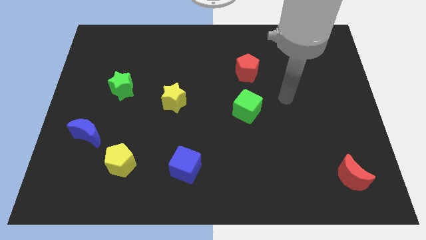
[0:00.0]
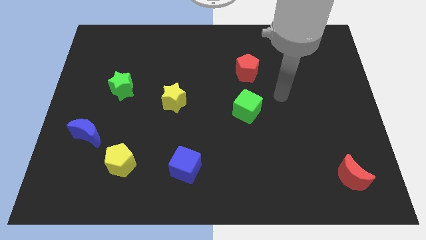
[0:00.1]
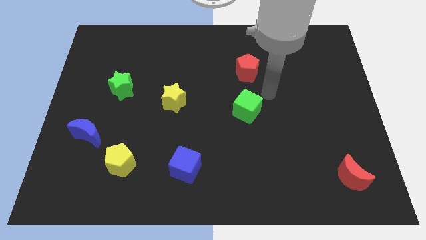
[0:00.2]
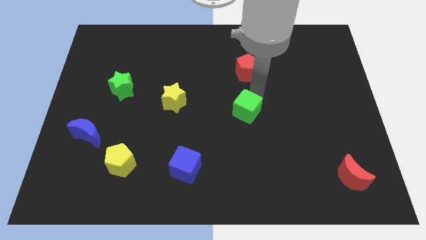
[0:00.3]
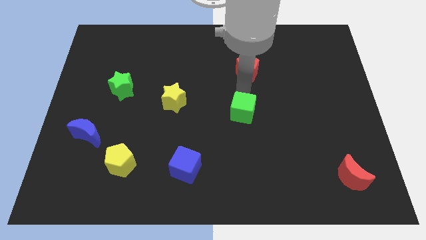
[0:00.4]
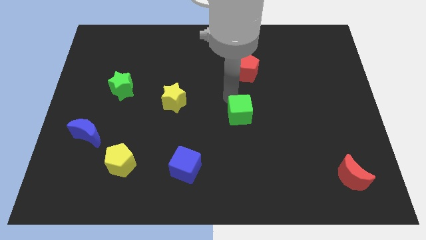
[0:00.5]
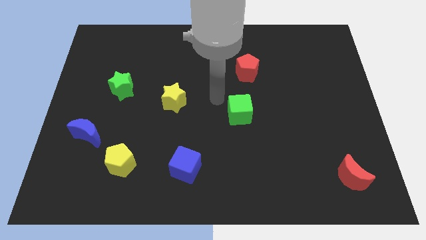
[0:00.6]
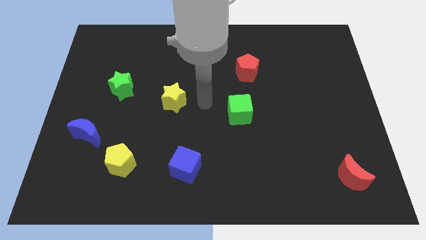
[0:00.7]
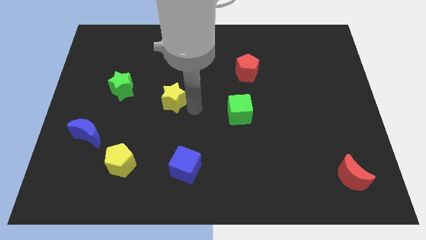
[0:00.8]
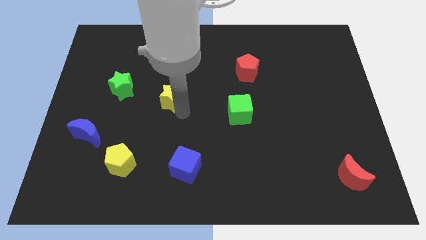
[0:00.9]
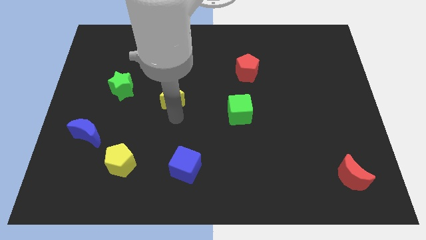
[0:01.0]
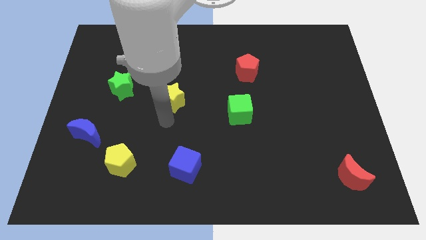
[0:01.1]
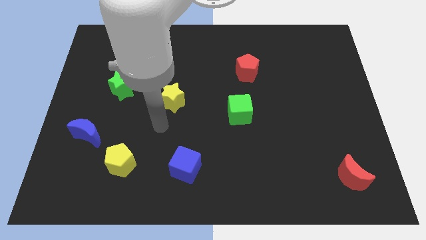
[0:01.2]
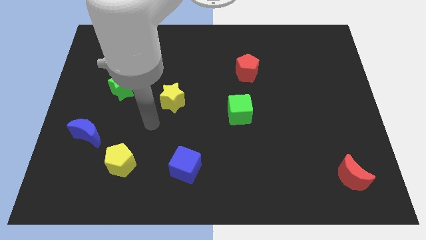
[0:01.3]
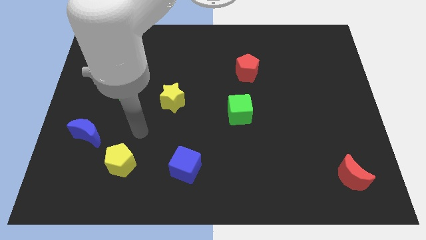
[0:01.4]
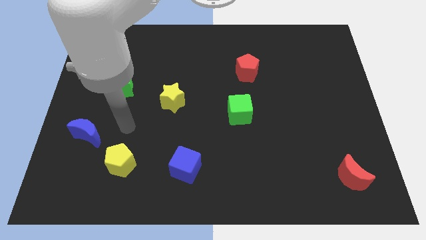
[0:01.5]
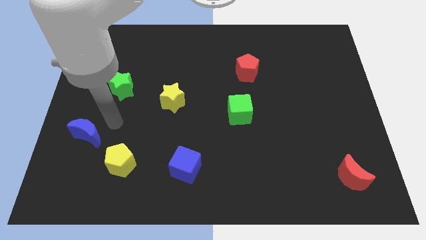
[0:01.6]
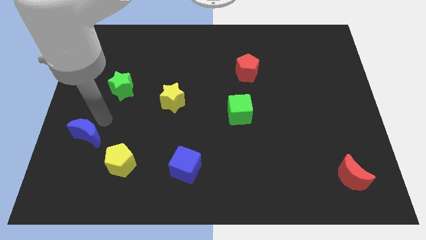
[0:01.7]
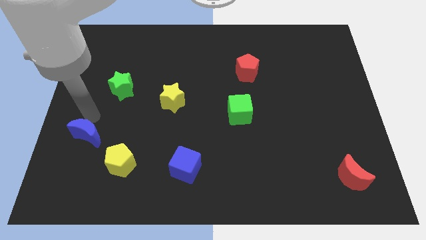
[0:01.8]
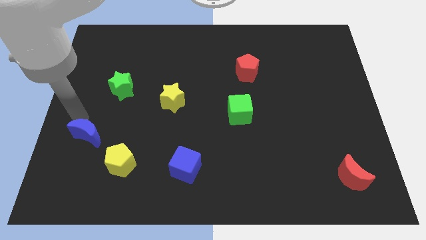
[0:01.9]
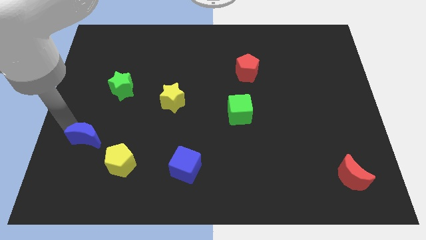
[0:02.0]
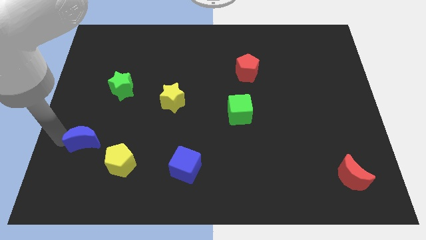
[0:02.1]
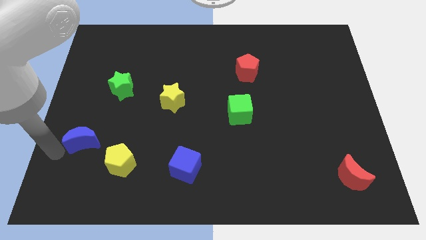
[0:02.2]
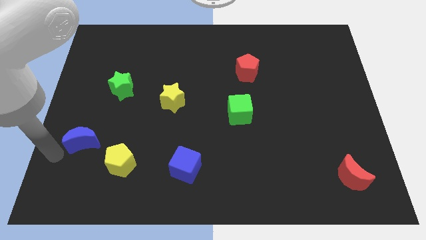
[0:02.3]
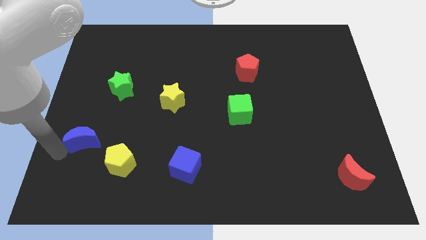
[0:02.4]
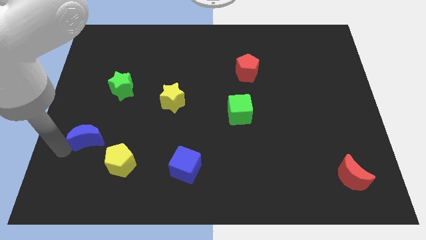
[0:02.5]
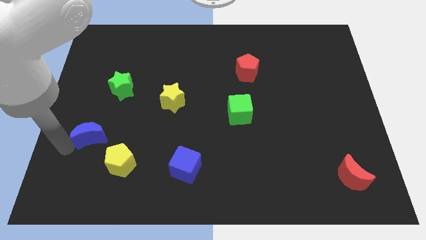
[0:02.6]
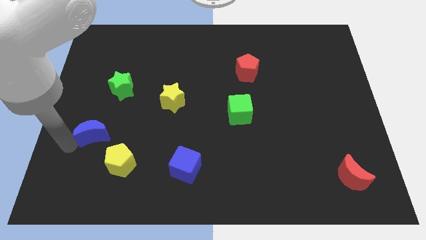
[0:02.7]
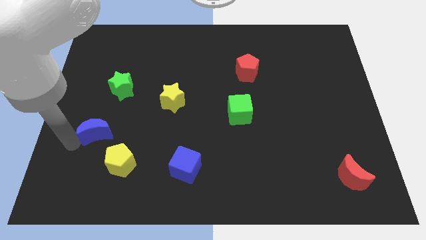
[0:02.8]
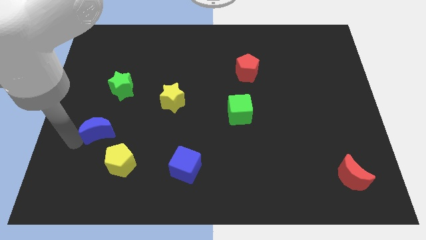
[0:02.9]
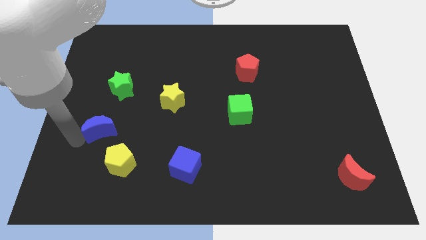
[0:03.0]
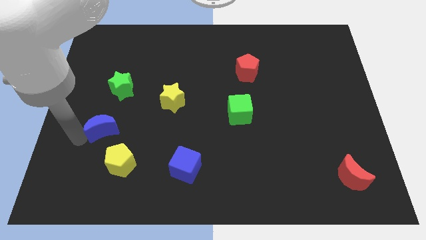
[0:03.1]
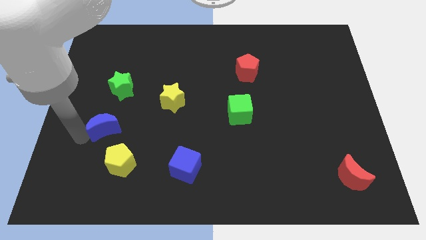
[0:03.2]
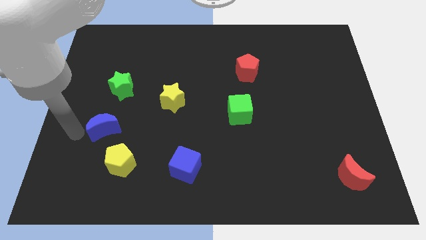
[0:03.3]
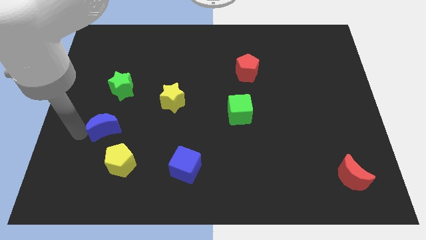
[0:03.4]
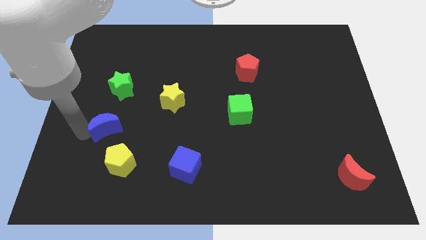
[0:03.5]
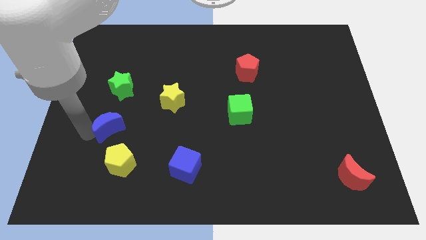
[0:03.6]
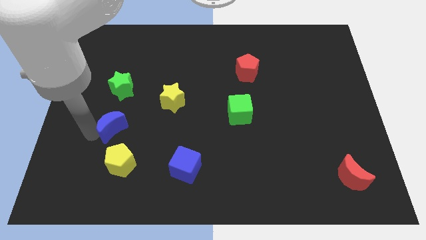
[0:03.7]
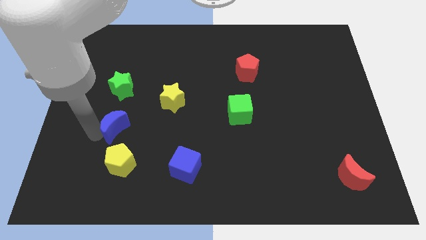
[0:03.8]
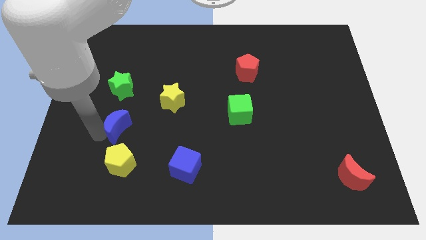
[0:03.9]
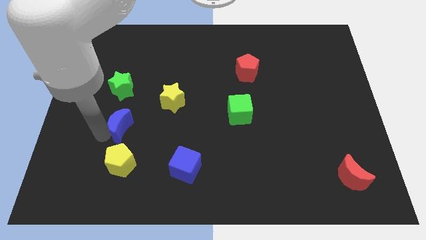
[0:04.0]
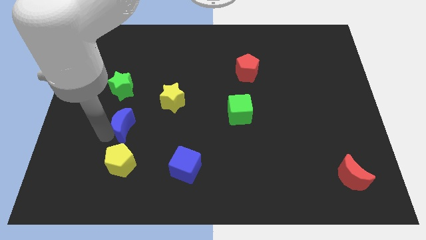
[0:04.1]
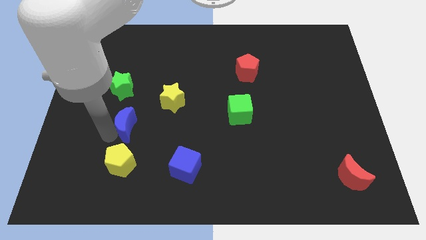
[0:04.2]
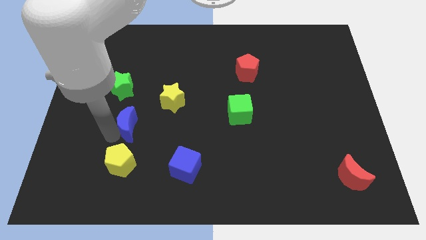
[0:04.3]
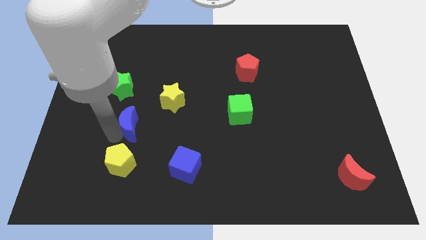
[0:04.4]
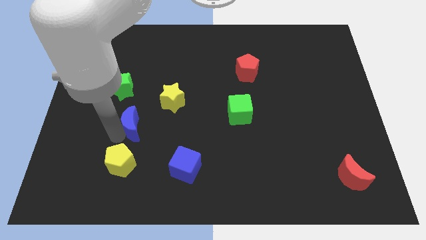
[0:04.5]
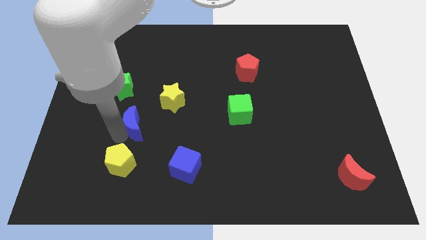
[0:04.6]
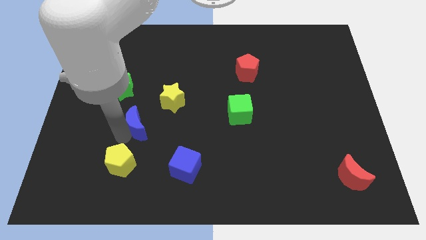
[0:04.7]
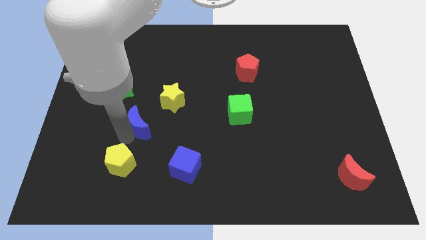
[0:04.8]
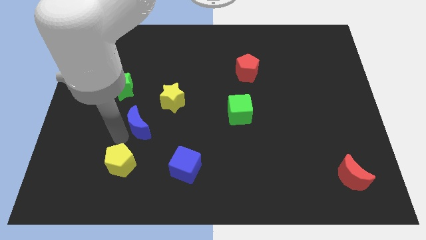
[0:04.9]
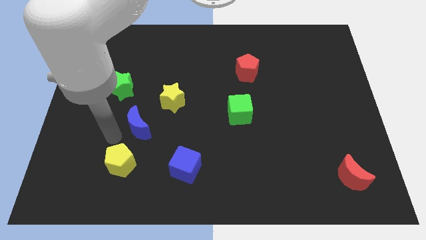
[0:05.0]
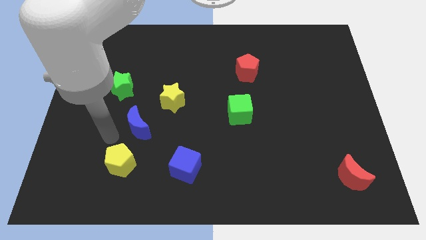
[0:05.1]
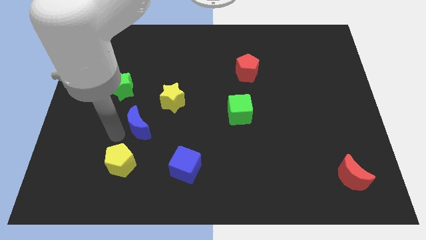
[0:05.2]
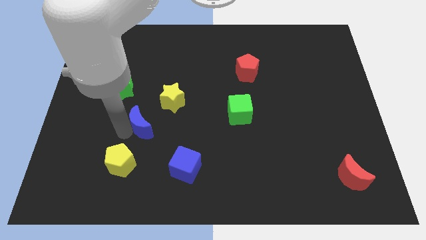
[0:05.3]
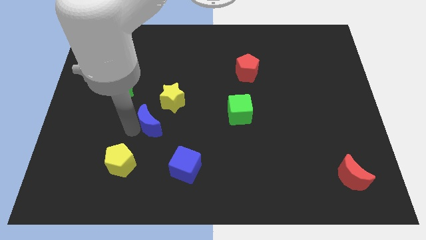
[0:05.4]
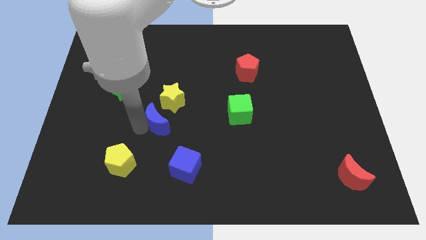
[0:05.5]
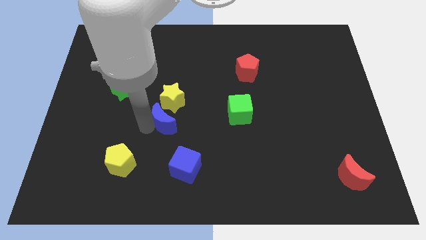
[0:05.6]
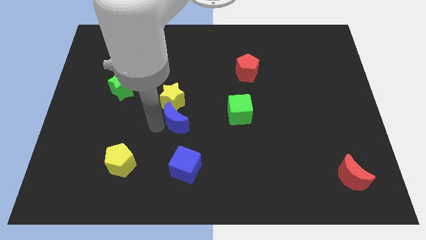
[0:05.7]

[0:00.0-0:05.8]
slide the blue moon to the middle

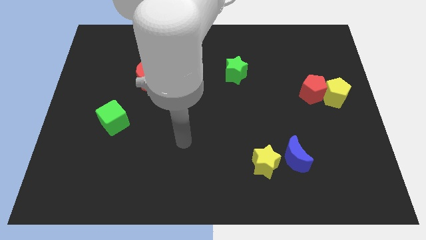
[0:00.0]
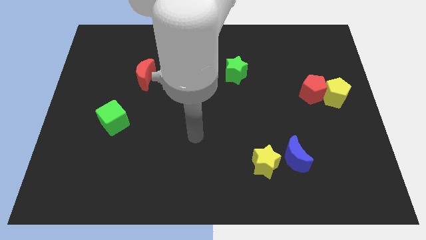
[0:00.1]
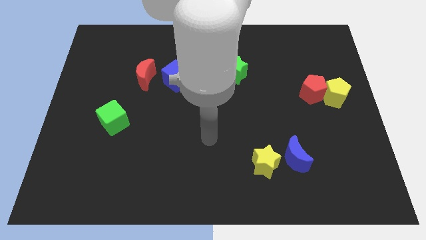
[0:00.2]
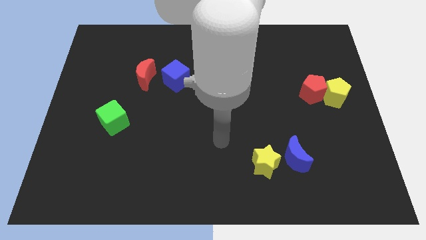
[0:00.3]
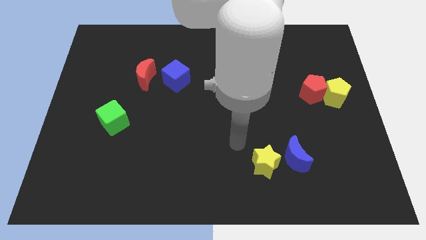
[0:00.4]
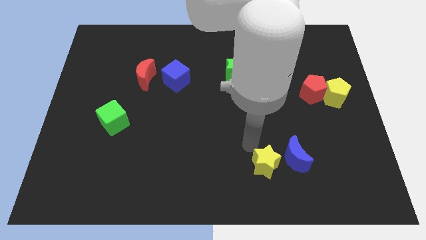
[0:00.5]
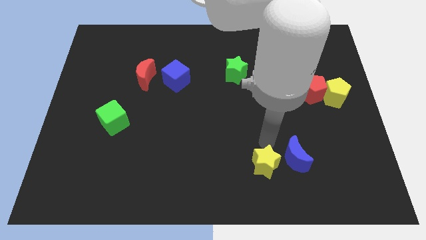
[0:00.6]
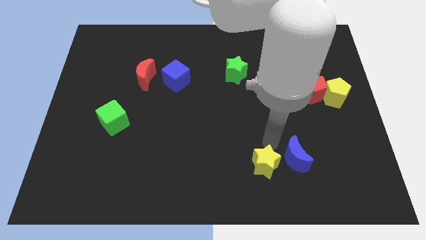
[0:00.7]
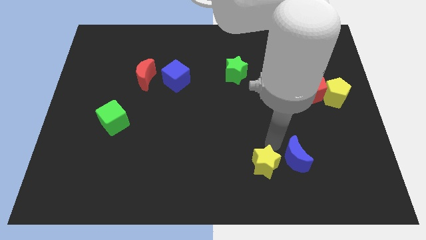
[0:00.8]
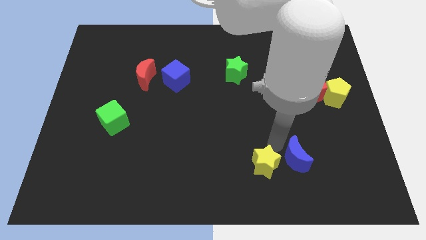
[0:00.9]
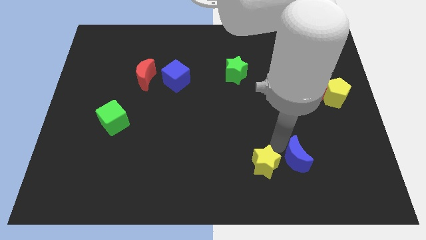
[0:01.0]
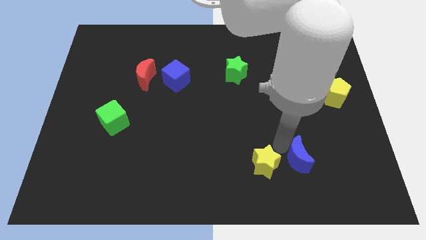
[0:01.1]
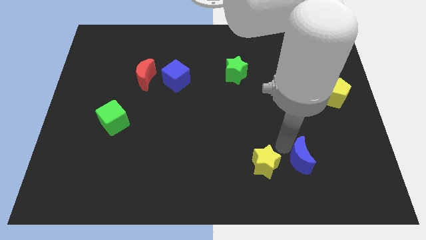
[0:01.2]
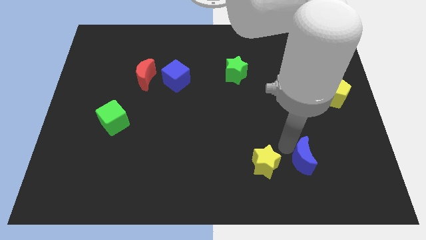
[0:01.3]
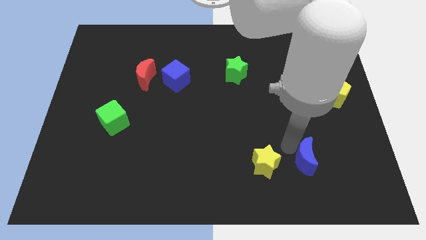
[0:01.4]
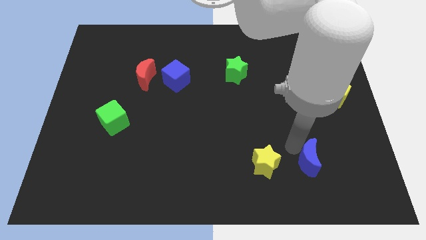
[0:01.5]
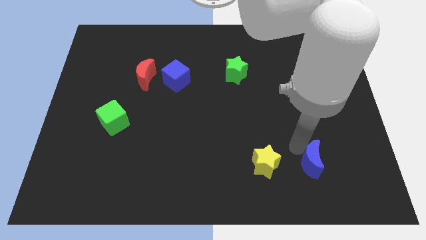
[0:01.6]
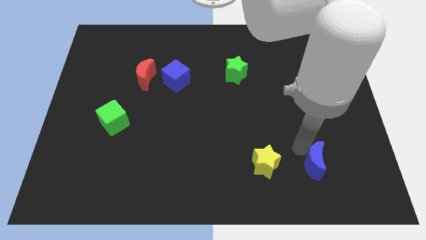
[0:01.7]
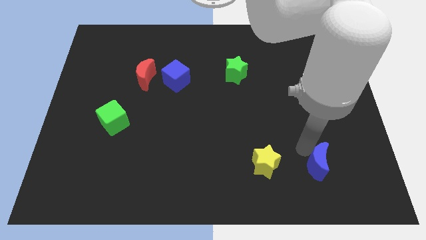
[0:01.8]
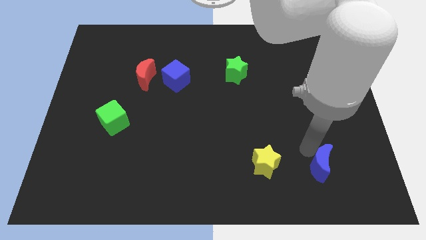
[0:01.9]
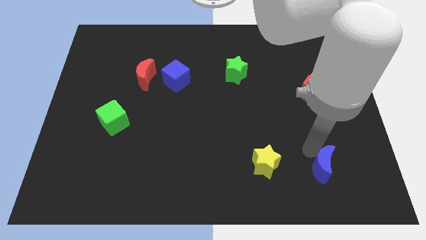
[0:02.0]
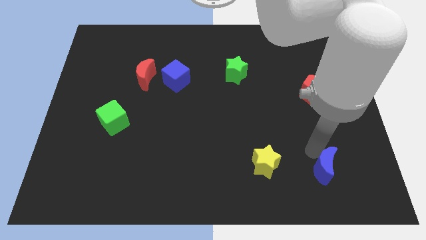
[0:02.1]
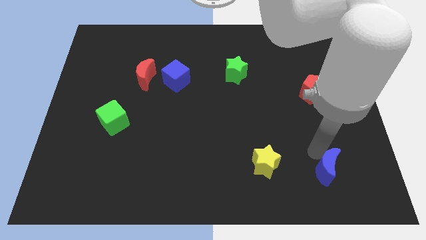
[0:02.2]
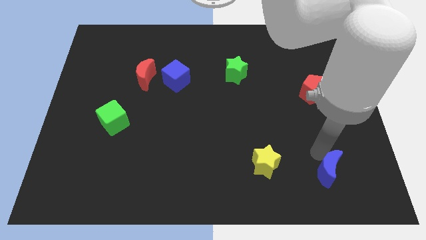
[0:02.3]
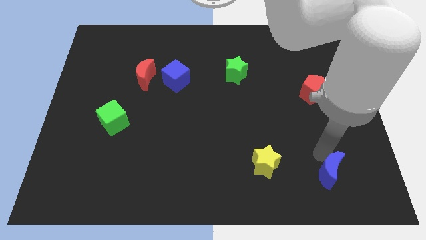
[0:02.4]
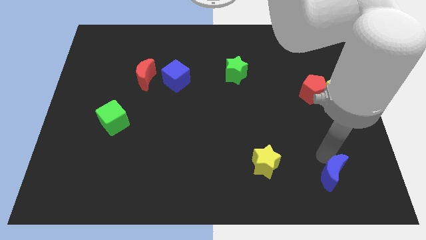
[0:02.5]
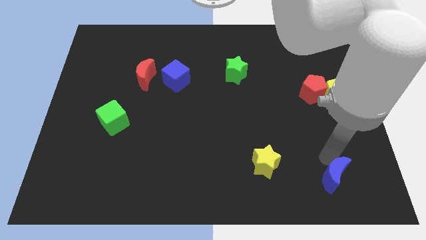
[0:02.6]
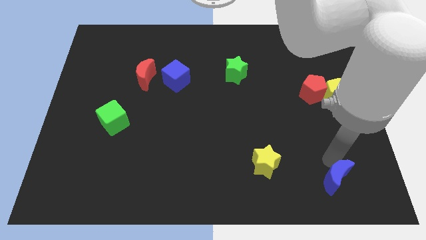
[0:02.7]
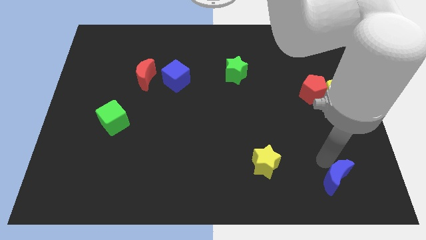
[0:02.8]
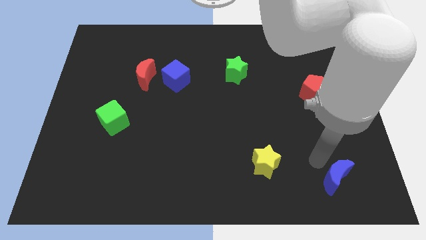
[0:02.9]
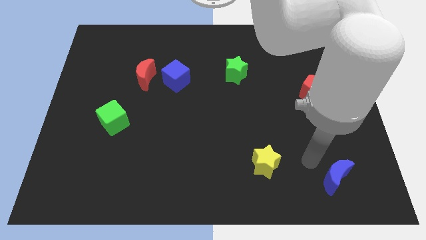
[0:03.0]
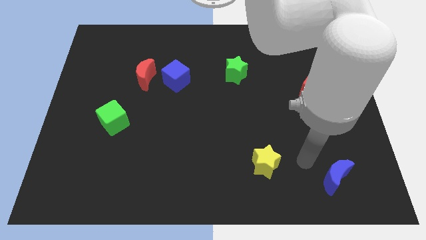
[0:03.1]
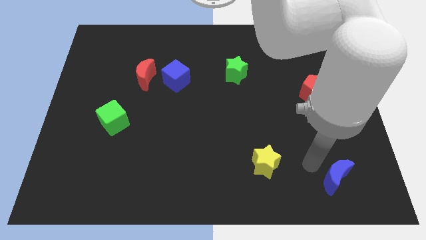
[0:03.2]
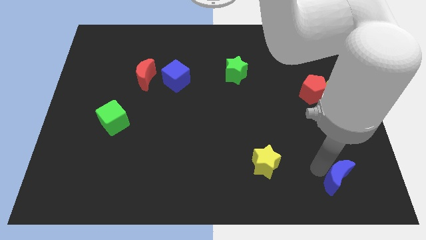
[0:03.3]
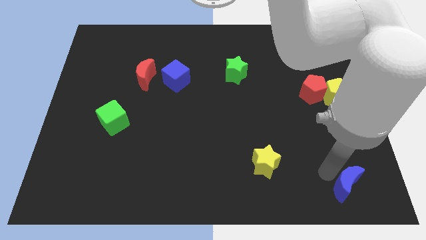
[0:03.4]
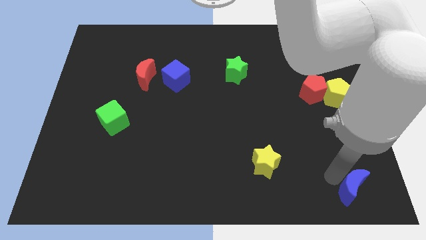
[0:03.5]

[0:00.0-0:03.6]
put the blue moon to the lower right corner
